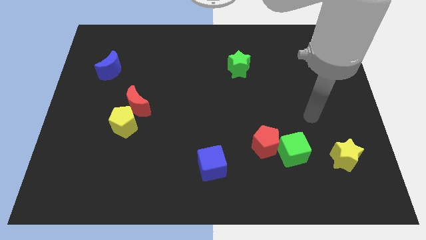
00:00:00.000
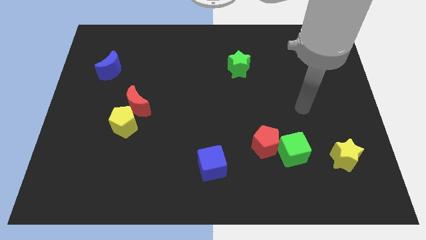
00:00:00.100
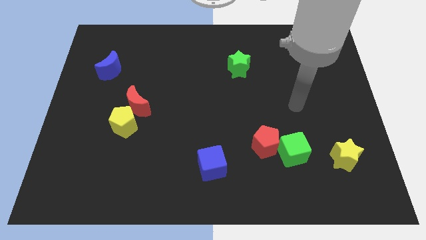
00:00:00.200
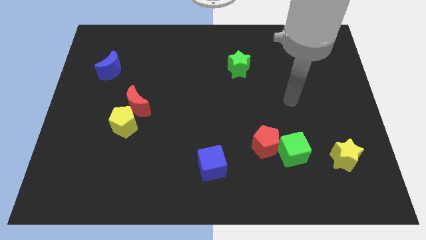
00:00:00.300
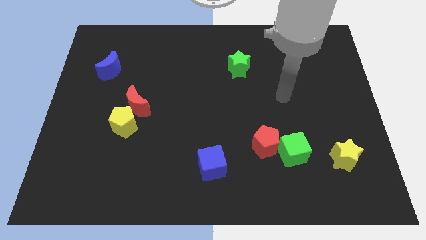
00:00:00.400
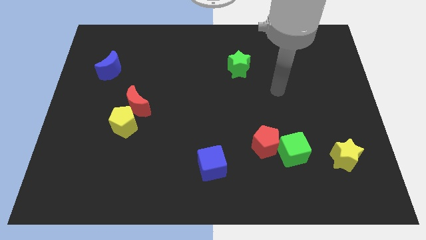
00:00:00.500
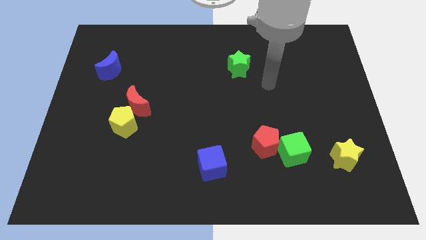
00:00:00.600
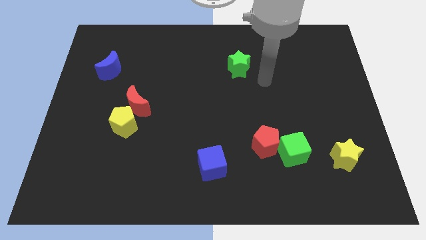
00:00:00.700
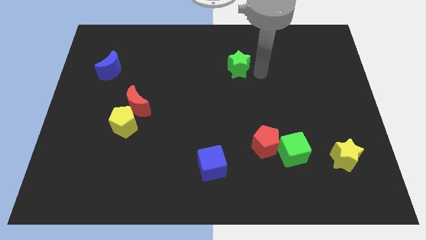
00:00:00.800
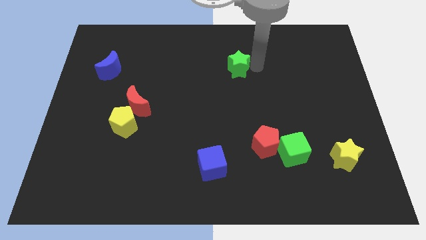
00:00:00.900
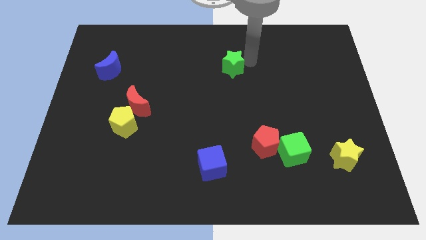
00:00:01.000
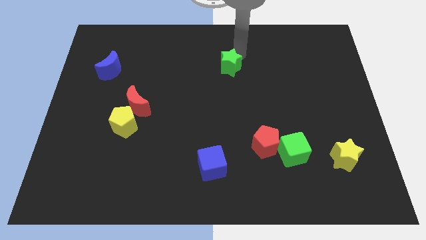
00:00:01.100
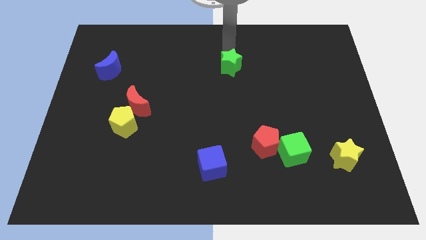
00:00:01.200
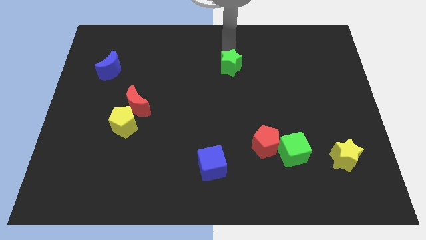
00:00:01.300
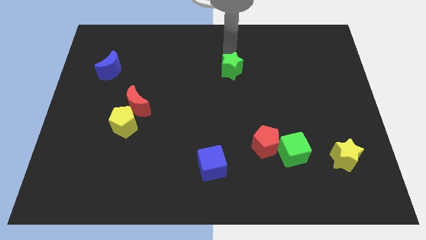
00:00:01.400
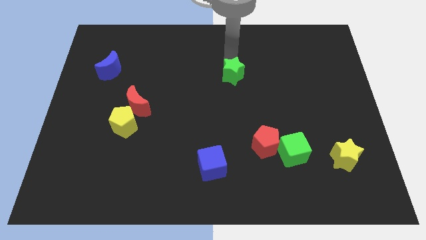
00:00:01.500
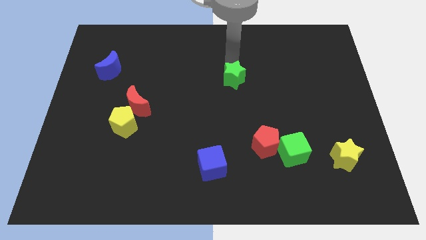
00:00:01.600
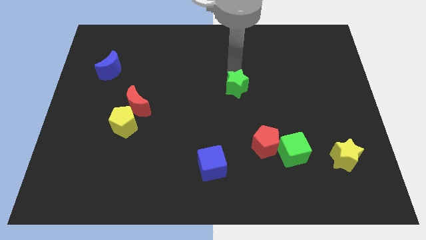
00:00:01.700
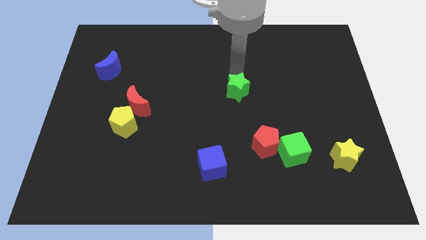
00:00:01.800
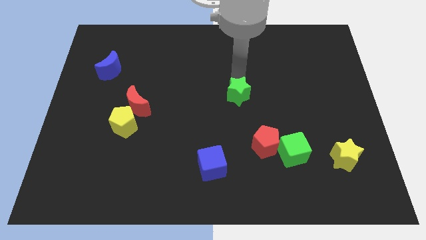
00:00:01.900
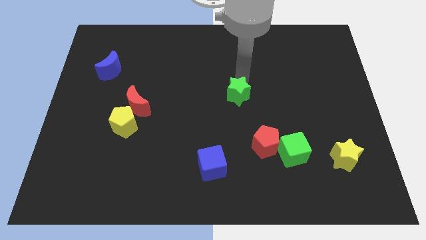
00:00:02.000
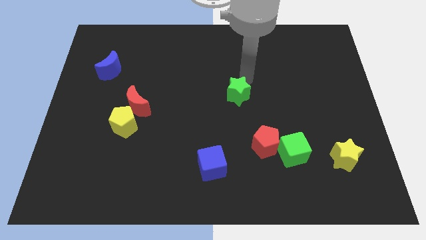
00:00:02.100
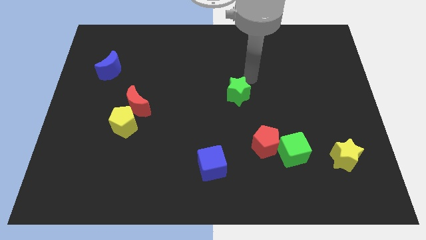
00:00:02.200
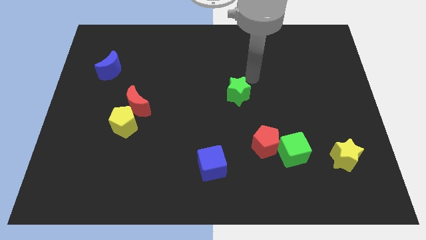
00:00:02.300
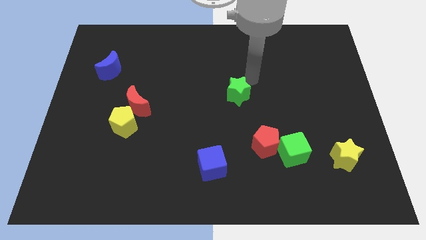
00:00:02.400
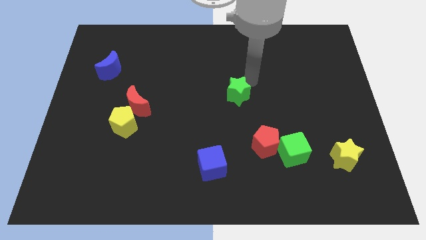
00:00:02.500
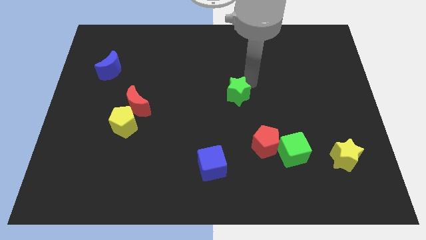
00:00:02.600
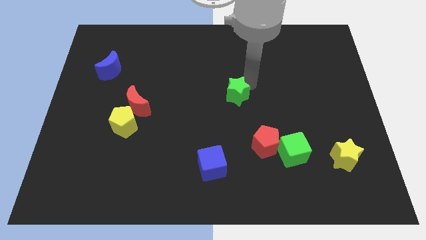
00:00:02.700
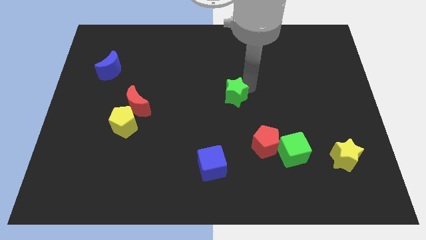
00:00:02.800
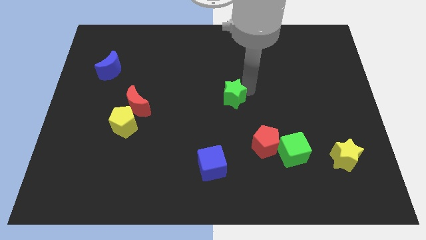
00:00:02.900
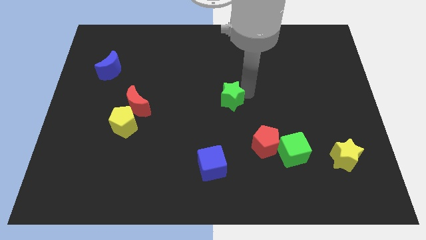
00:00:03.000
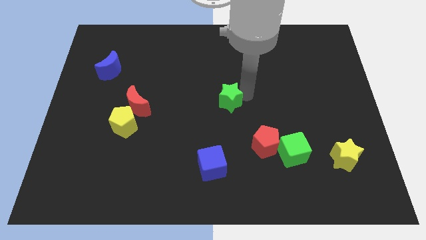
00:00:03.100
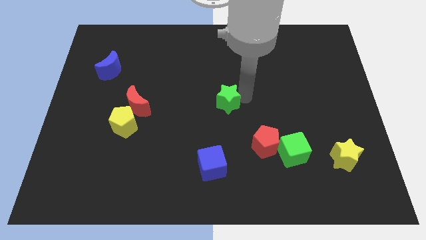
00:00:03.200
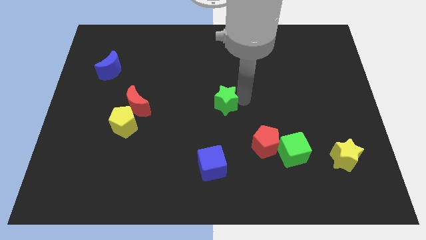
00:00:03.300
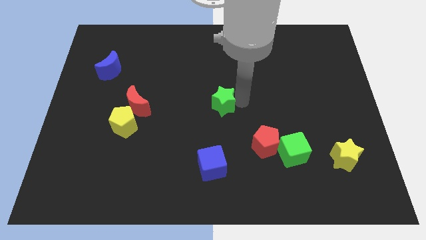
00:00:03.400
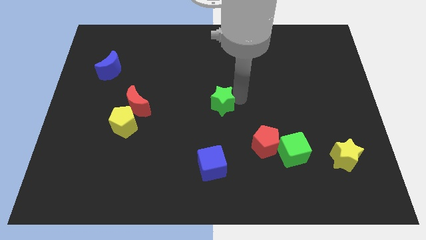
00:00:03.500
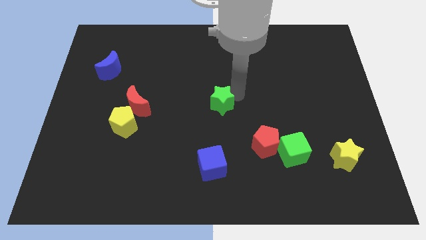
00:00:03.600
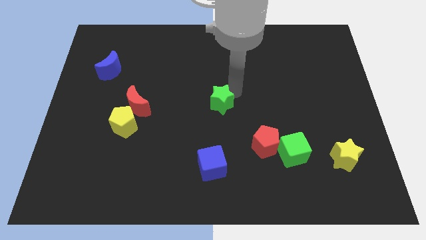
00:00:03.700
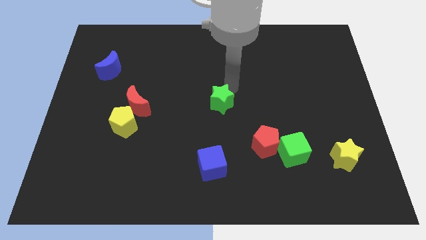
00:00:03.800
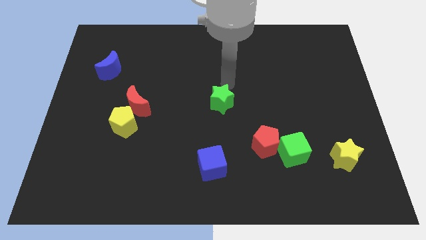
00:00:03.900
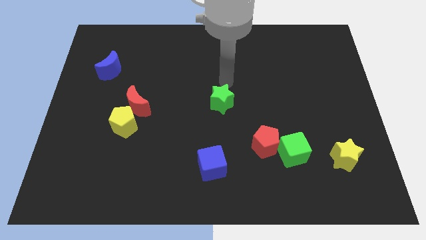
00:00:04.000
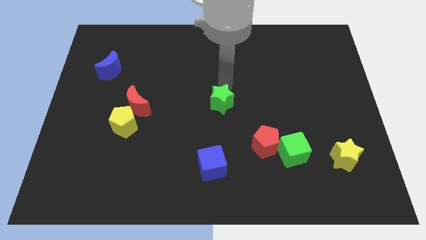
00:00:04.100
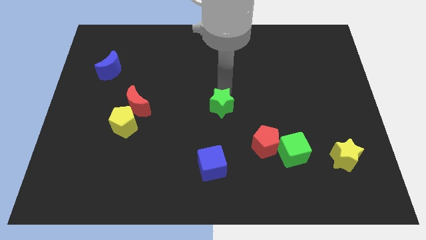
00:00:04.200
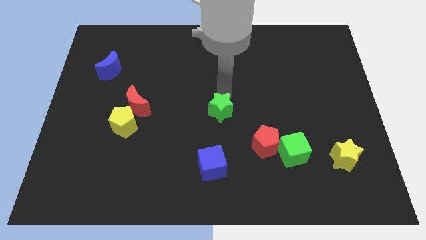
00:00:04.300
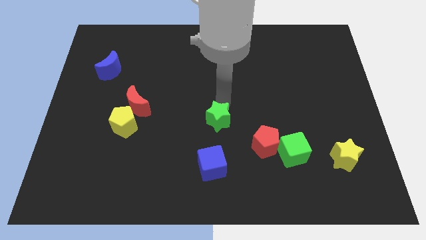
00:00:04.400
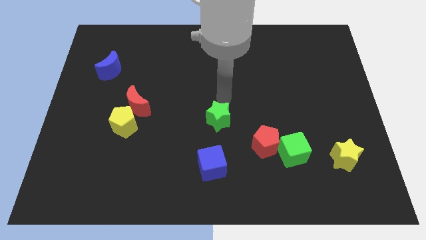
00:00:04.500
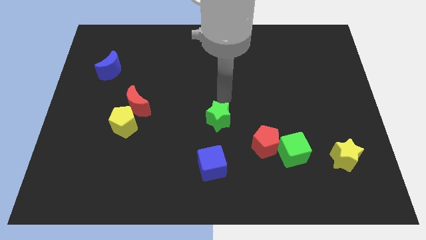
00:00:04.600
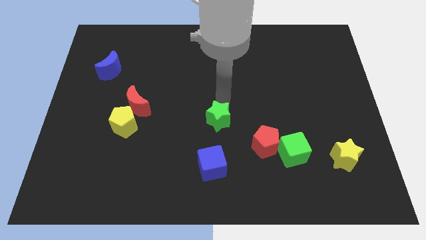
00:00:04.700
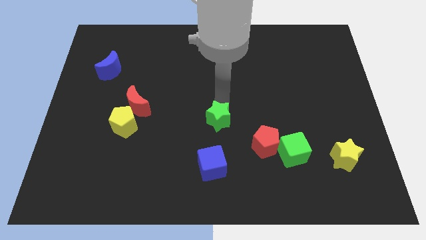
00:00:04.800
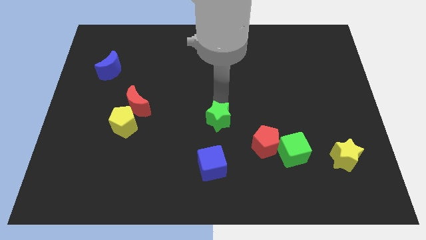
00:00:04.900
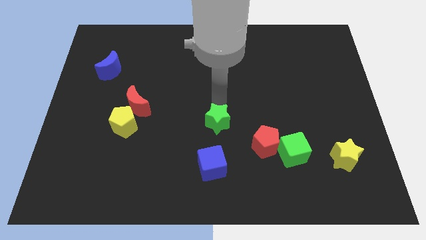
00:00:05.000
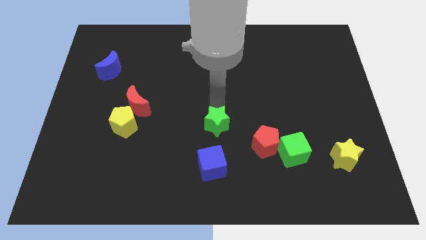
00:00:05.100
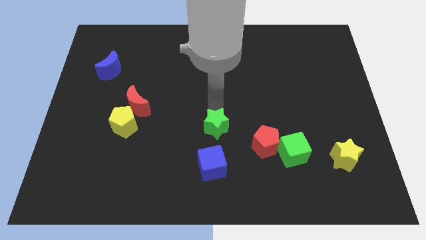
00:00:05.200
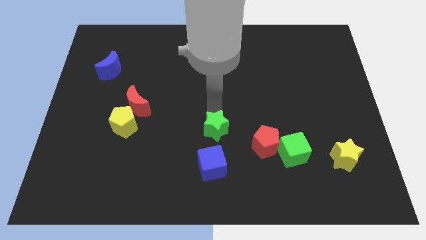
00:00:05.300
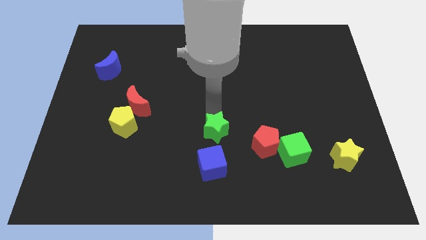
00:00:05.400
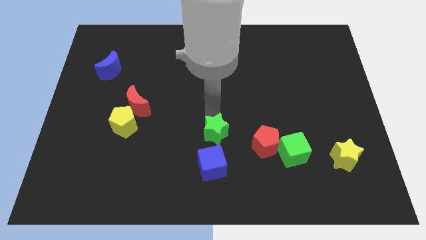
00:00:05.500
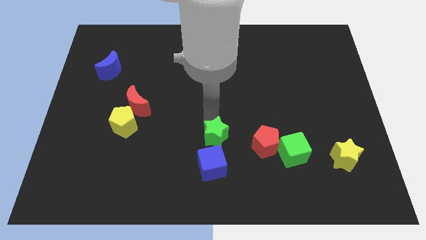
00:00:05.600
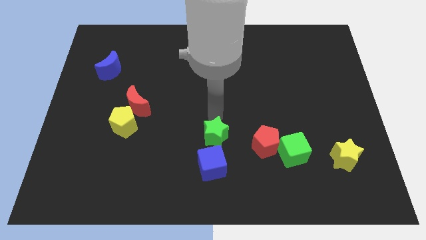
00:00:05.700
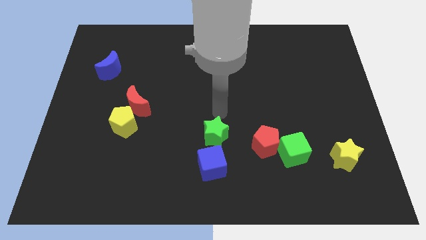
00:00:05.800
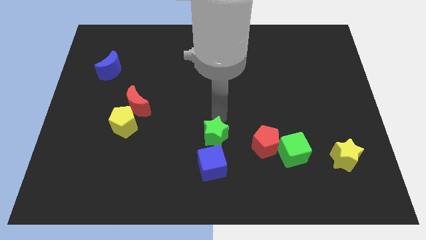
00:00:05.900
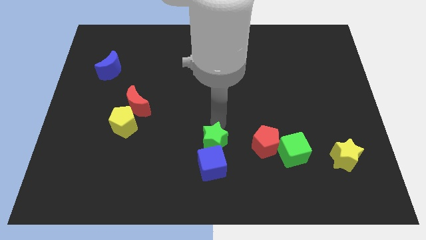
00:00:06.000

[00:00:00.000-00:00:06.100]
move the green star close to the blue cube

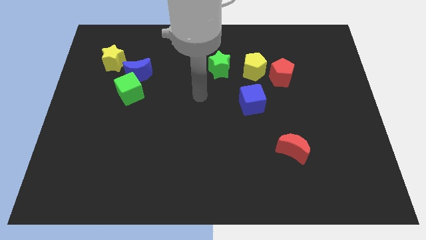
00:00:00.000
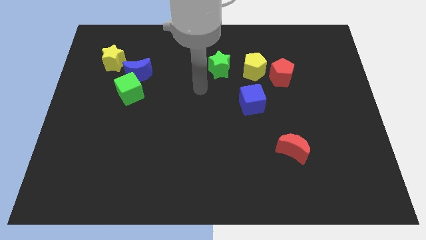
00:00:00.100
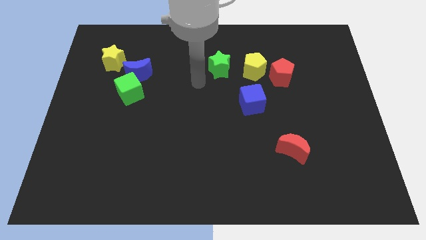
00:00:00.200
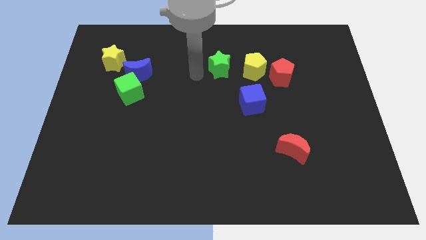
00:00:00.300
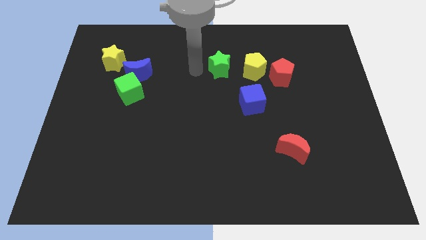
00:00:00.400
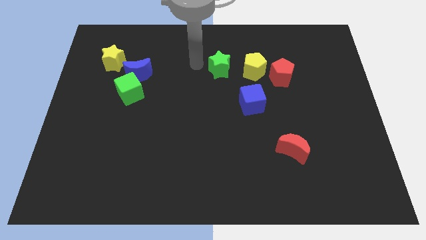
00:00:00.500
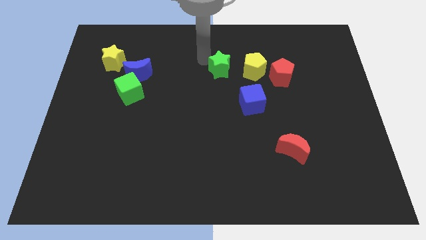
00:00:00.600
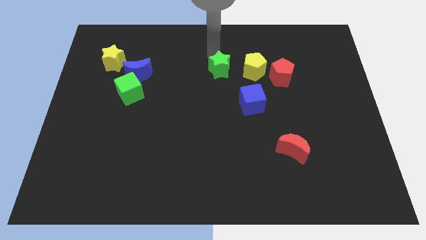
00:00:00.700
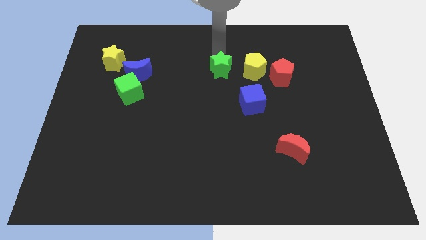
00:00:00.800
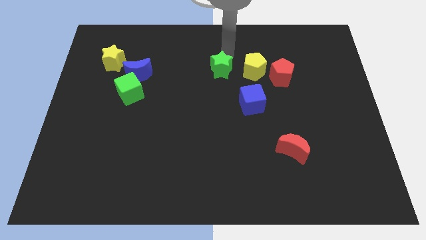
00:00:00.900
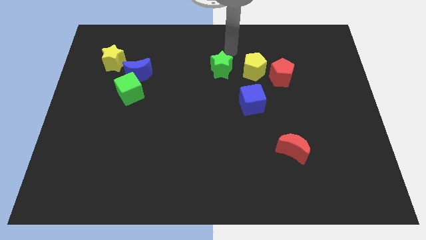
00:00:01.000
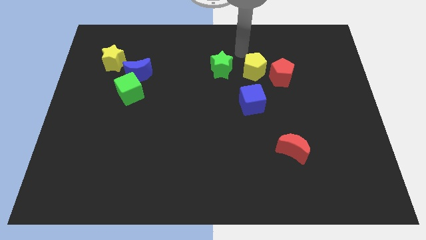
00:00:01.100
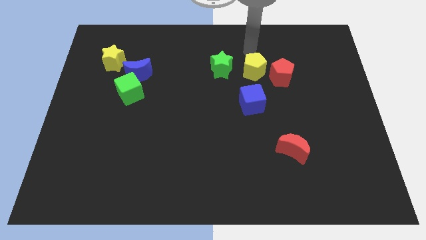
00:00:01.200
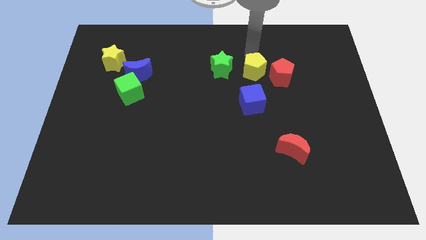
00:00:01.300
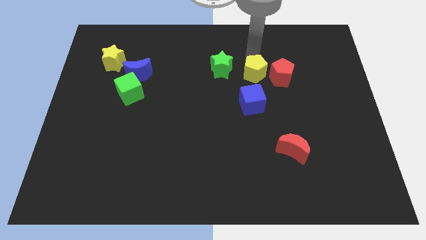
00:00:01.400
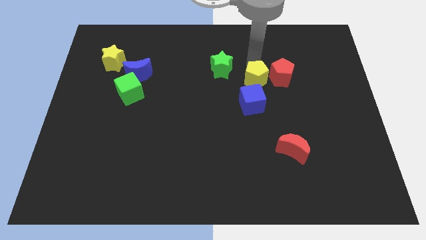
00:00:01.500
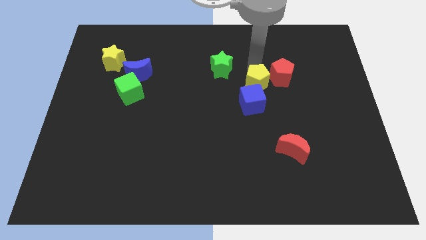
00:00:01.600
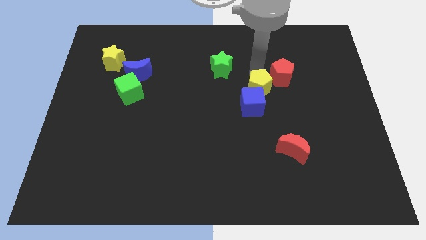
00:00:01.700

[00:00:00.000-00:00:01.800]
move the yellow pentagon to the blue cube
